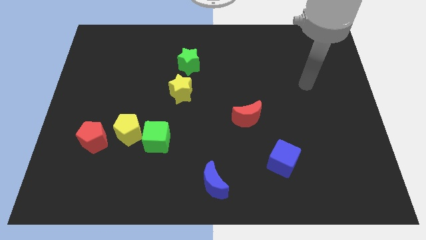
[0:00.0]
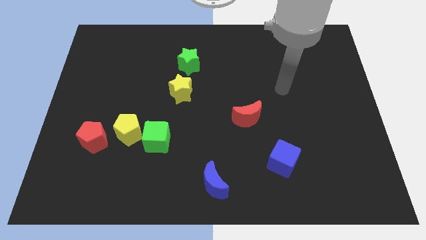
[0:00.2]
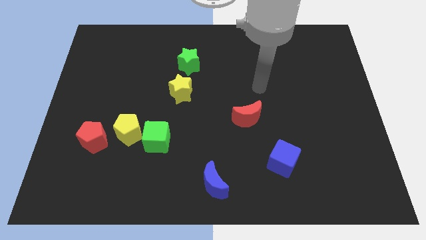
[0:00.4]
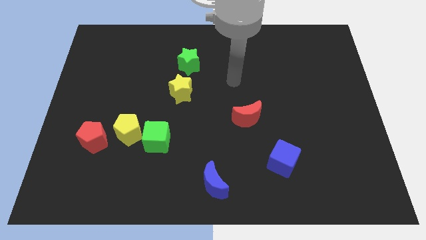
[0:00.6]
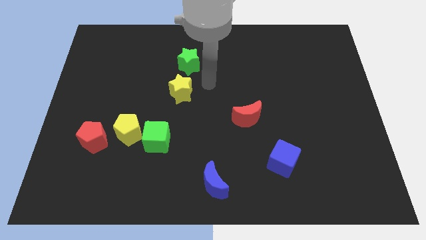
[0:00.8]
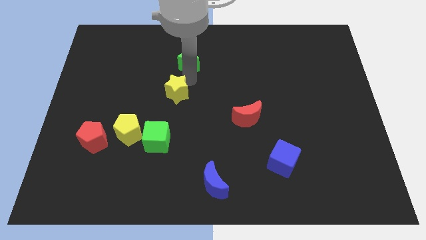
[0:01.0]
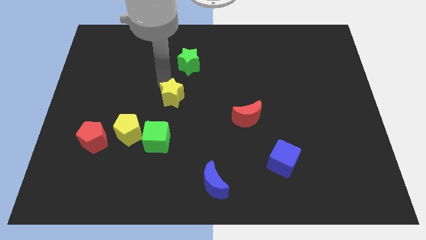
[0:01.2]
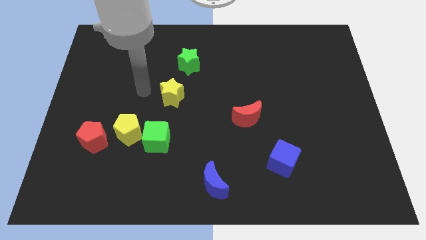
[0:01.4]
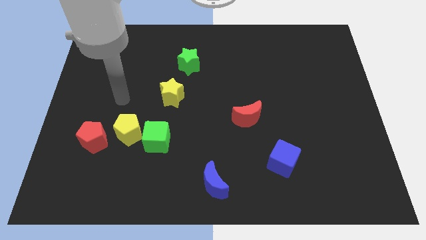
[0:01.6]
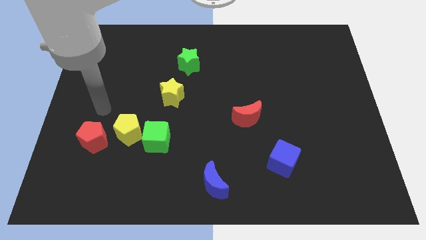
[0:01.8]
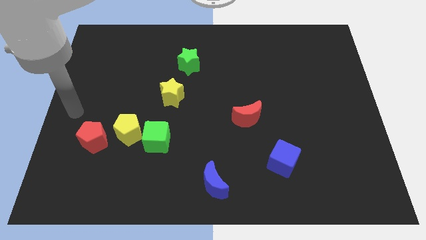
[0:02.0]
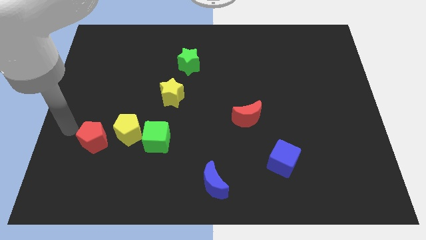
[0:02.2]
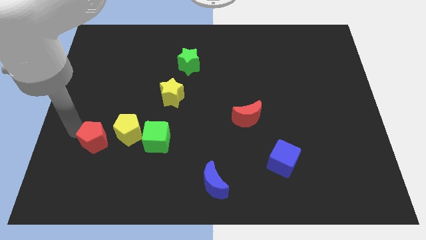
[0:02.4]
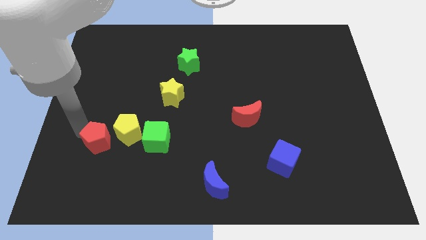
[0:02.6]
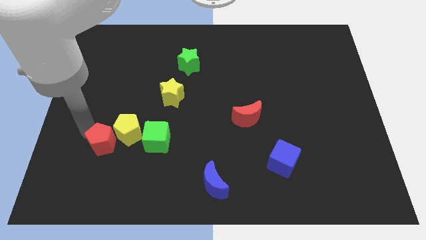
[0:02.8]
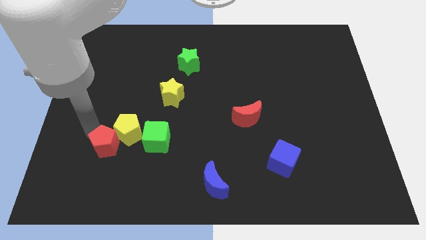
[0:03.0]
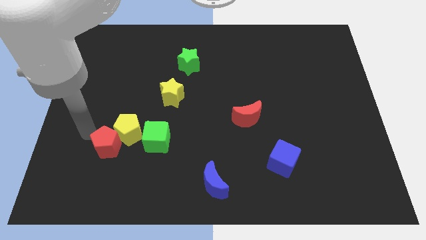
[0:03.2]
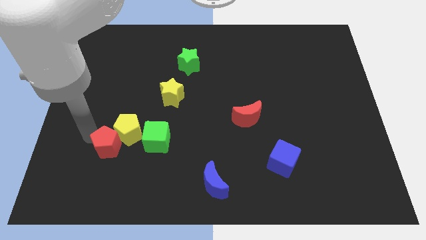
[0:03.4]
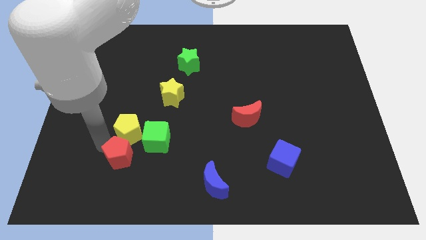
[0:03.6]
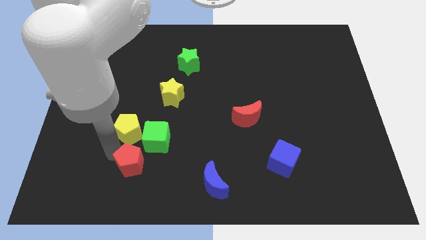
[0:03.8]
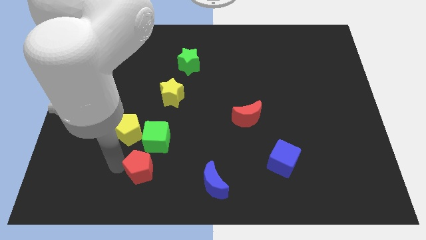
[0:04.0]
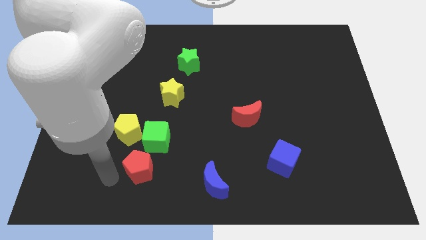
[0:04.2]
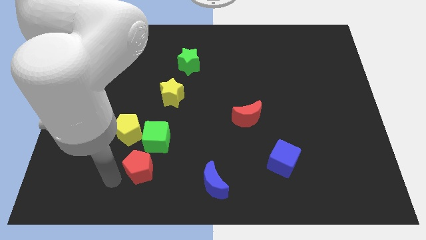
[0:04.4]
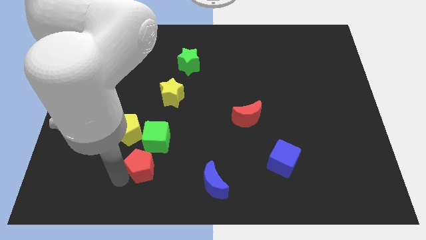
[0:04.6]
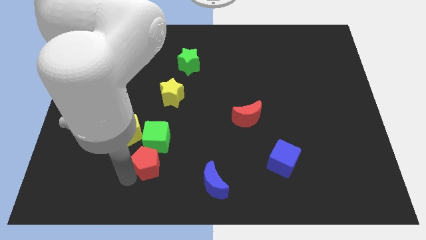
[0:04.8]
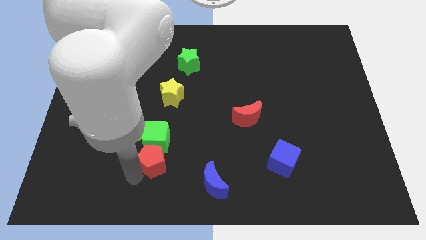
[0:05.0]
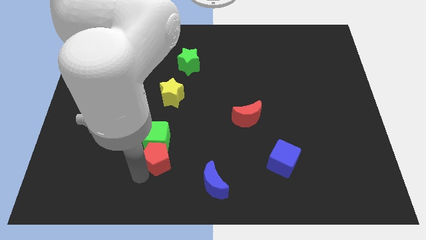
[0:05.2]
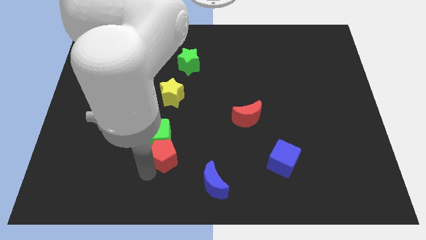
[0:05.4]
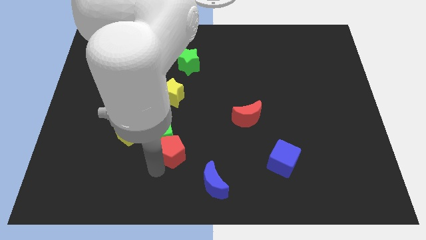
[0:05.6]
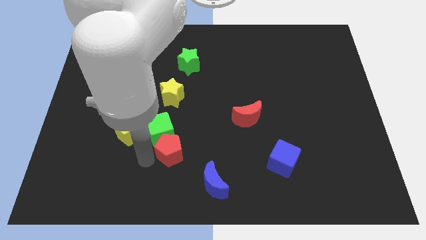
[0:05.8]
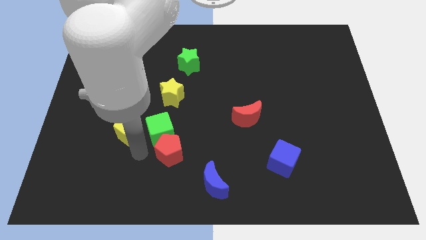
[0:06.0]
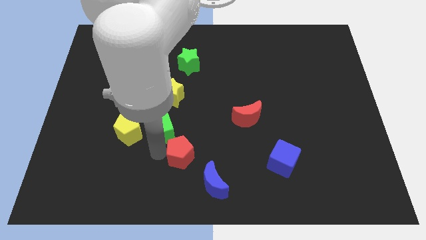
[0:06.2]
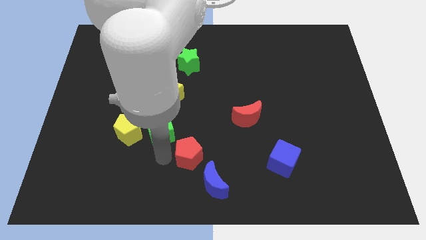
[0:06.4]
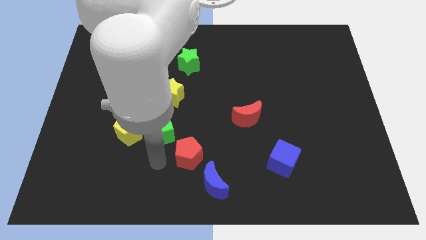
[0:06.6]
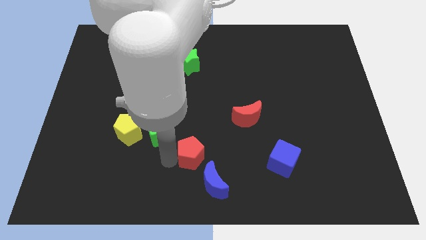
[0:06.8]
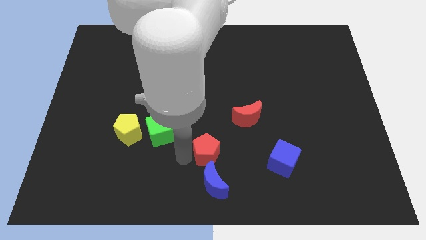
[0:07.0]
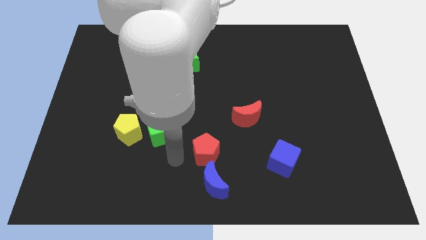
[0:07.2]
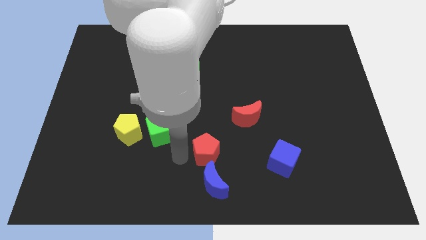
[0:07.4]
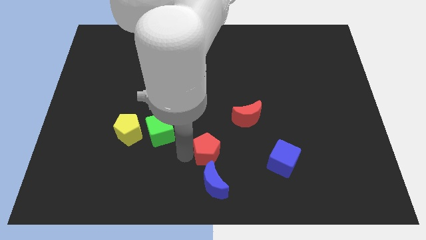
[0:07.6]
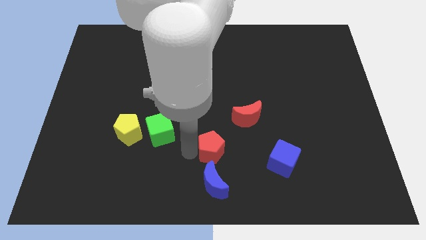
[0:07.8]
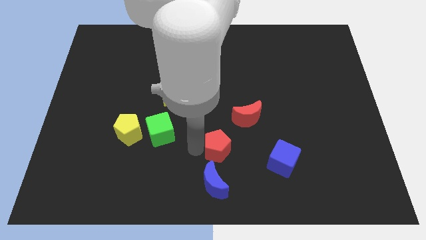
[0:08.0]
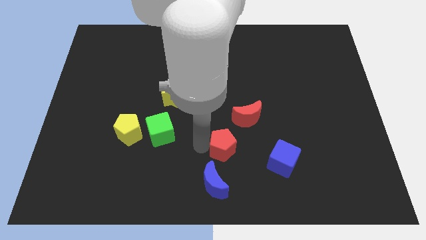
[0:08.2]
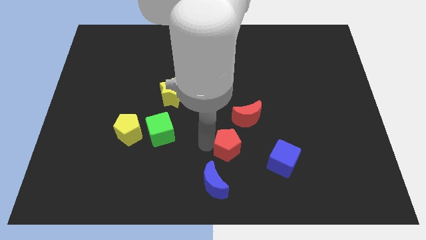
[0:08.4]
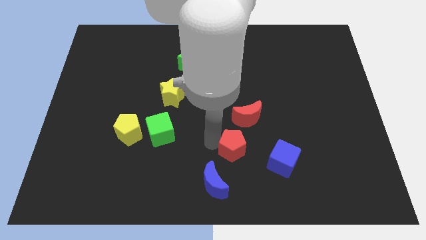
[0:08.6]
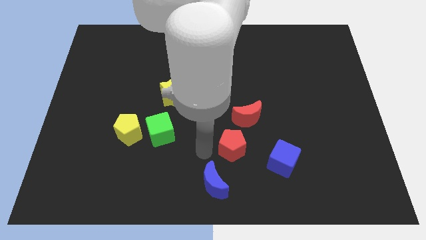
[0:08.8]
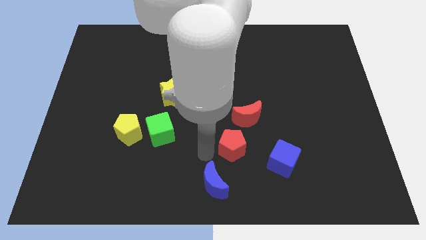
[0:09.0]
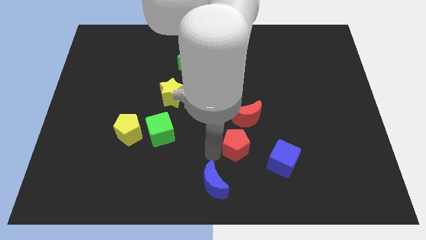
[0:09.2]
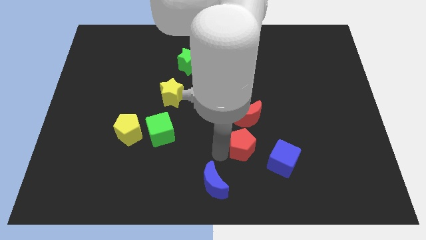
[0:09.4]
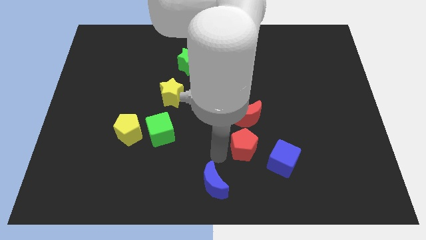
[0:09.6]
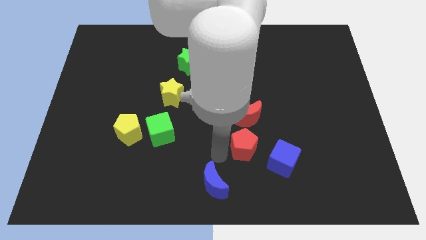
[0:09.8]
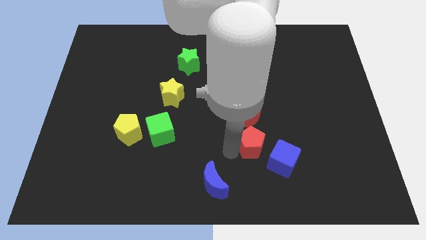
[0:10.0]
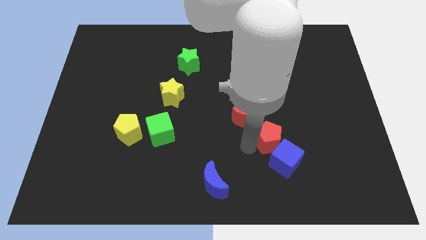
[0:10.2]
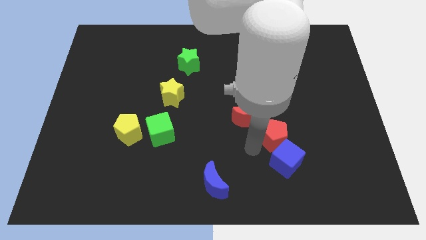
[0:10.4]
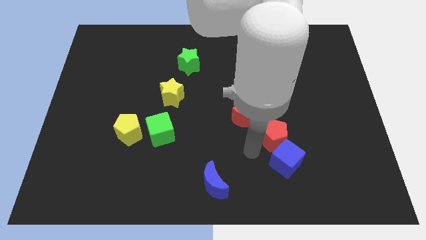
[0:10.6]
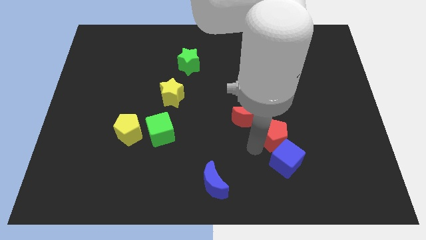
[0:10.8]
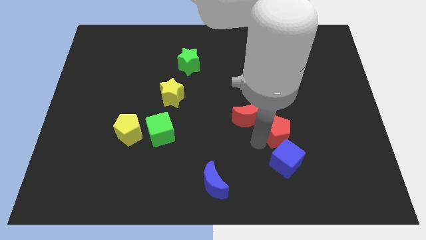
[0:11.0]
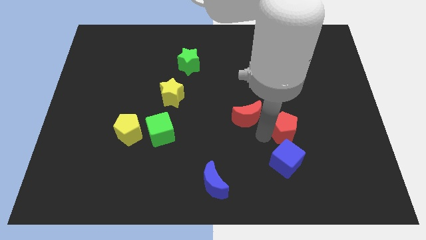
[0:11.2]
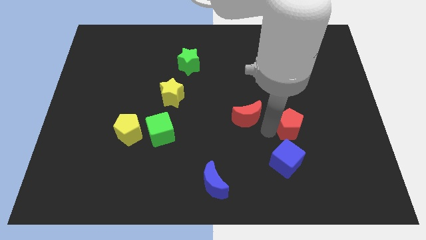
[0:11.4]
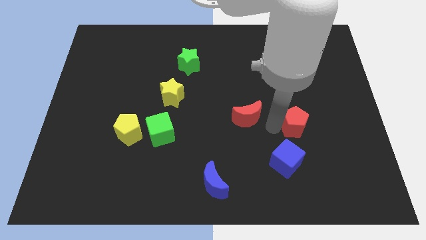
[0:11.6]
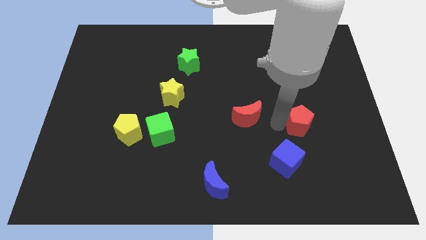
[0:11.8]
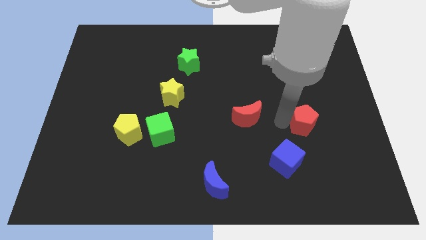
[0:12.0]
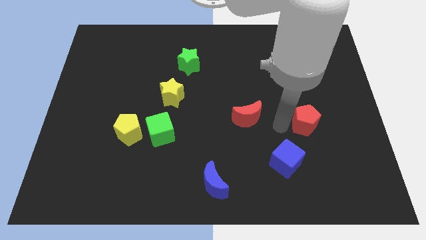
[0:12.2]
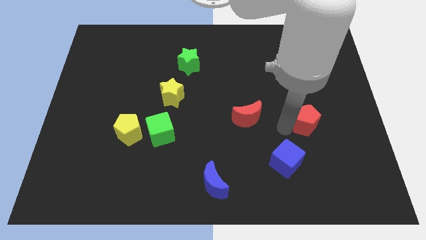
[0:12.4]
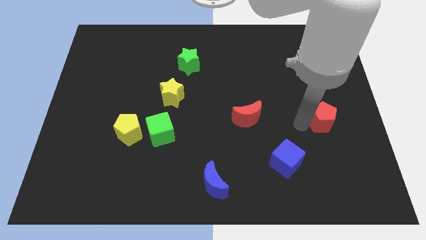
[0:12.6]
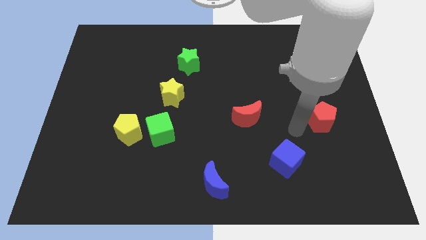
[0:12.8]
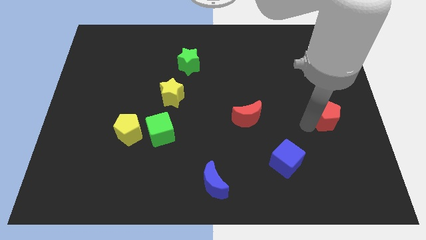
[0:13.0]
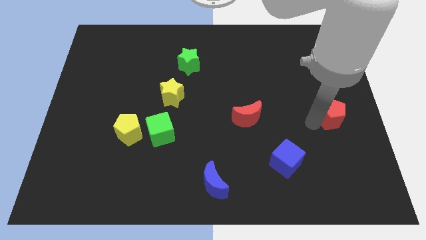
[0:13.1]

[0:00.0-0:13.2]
put the red pentagon to the center right
